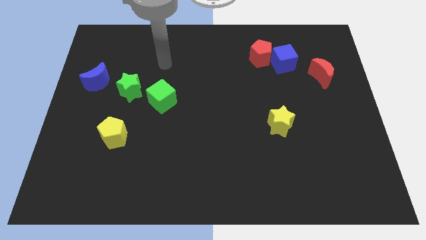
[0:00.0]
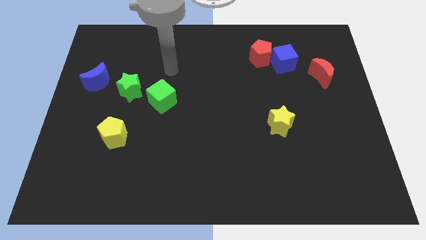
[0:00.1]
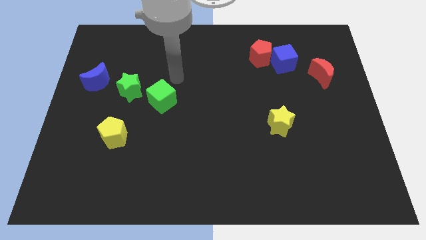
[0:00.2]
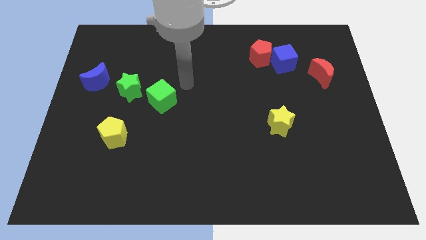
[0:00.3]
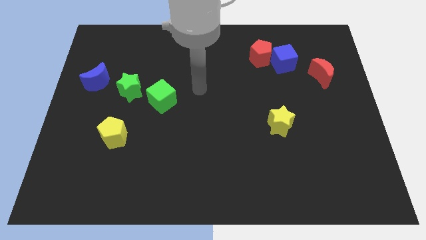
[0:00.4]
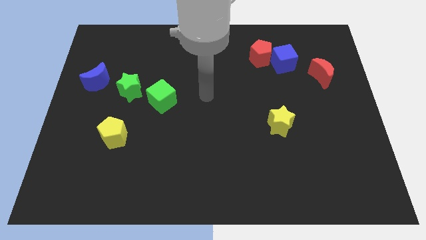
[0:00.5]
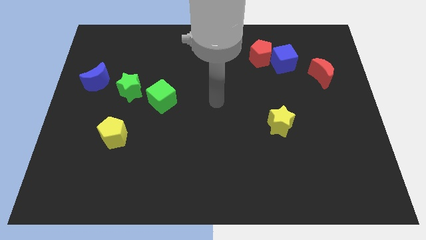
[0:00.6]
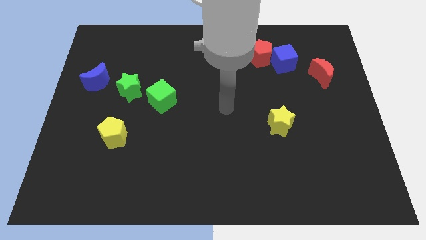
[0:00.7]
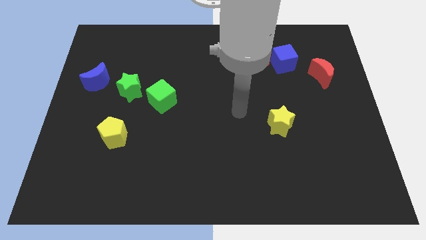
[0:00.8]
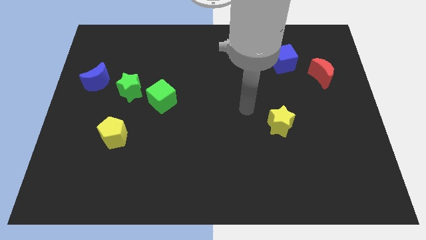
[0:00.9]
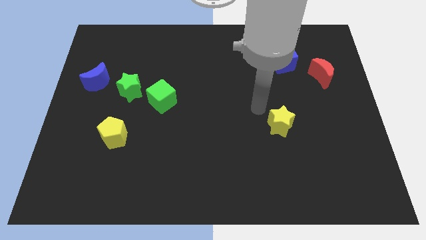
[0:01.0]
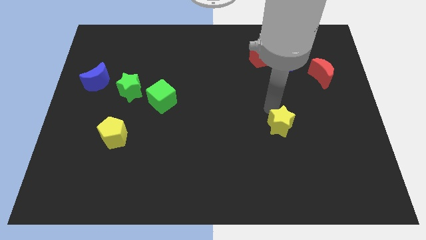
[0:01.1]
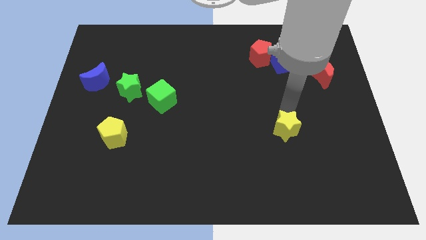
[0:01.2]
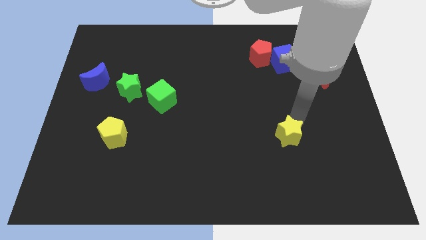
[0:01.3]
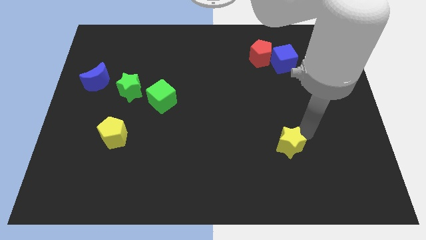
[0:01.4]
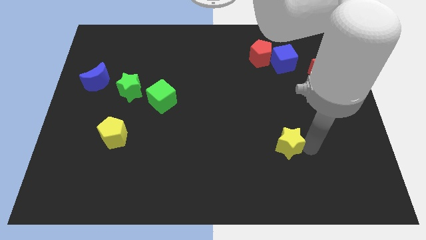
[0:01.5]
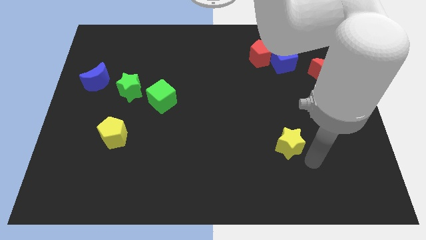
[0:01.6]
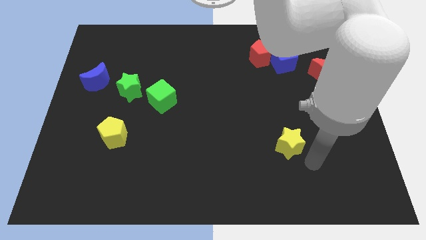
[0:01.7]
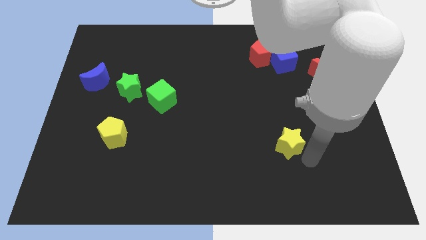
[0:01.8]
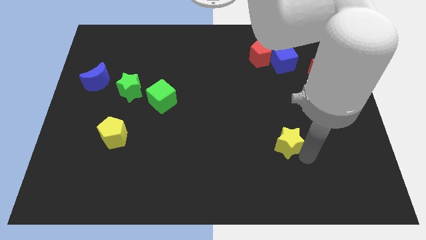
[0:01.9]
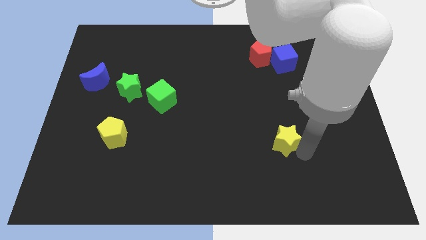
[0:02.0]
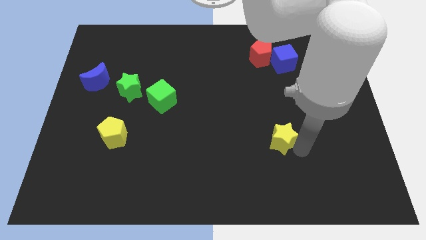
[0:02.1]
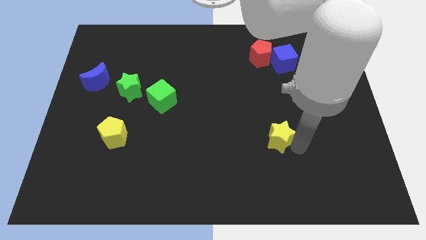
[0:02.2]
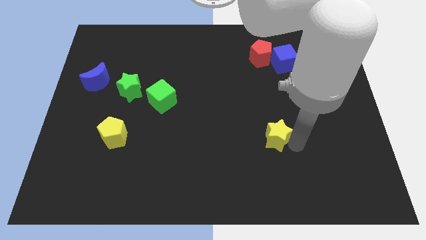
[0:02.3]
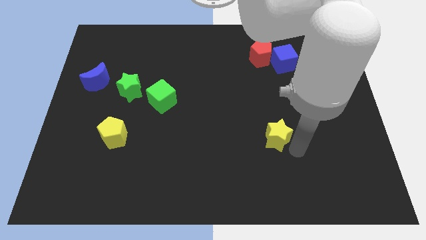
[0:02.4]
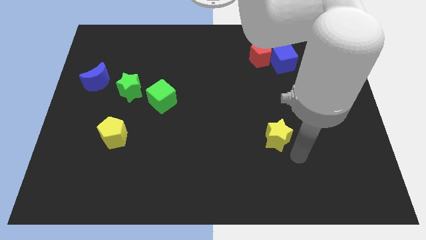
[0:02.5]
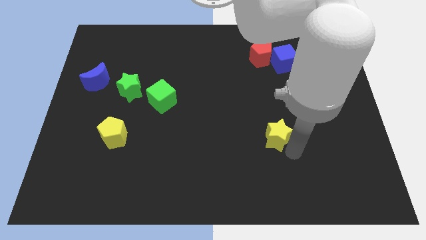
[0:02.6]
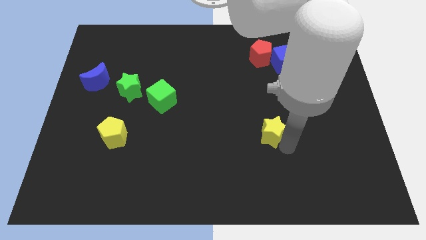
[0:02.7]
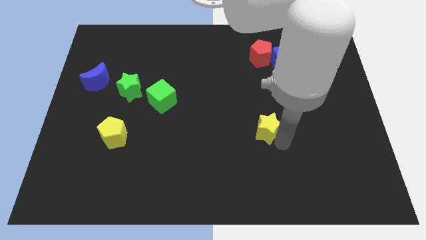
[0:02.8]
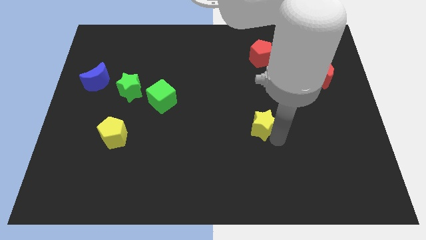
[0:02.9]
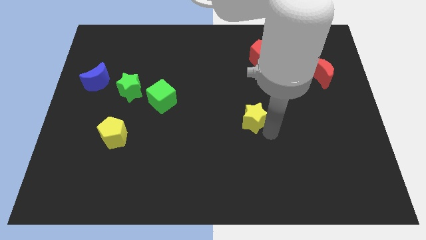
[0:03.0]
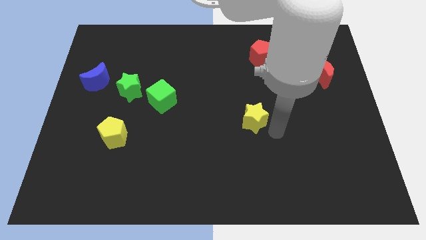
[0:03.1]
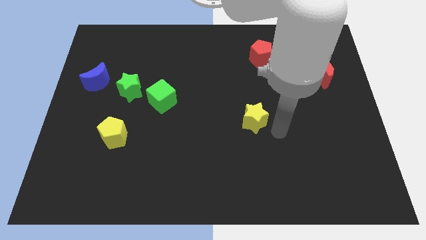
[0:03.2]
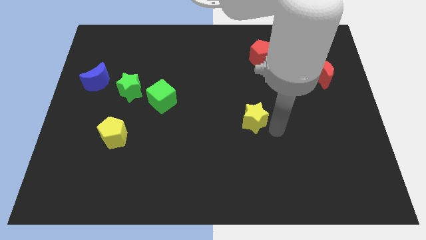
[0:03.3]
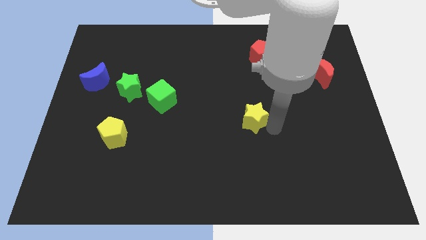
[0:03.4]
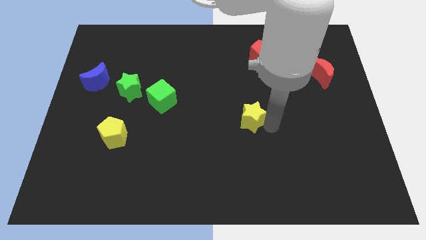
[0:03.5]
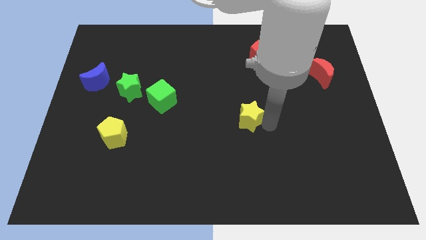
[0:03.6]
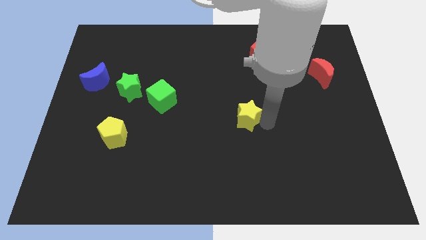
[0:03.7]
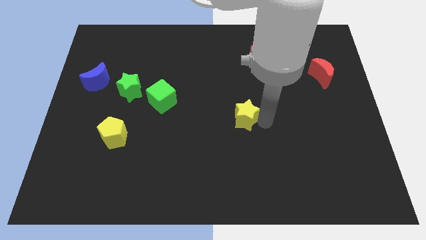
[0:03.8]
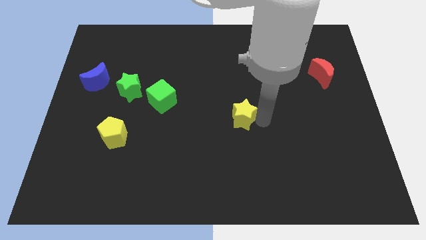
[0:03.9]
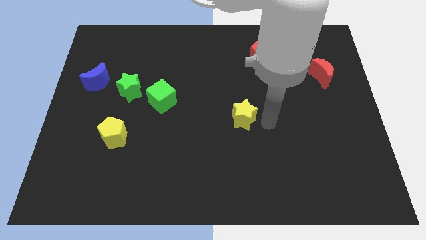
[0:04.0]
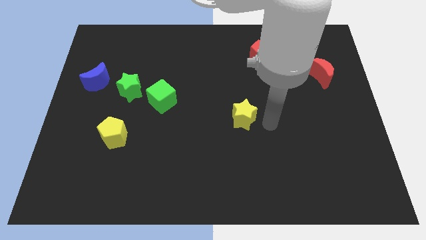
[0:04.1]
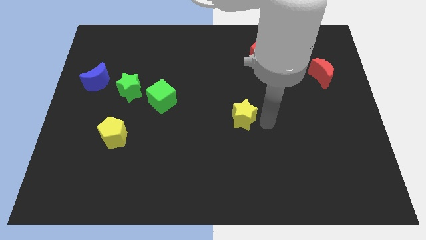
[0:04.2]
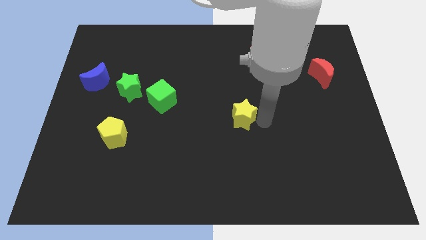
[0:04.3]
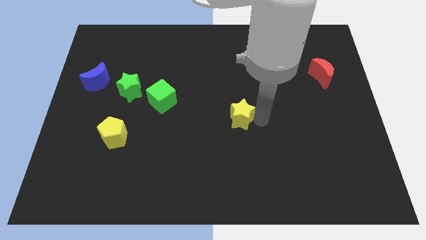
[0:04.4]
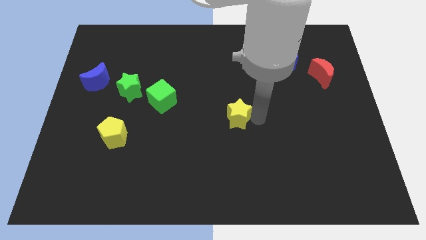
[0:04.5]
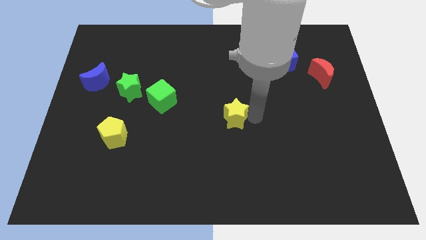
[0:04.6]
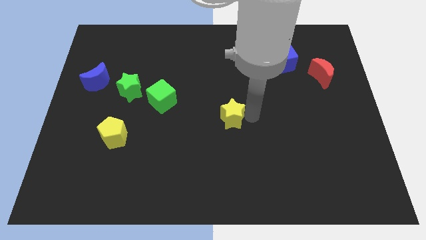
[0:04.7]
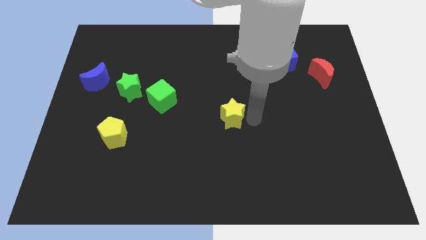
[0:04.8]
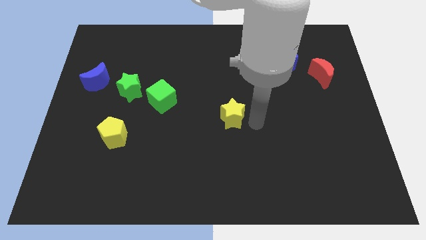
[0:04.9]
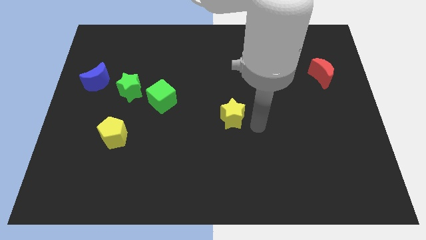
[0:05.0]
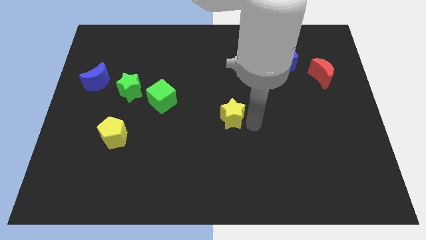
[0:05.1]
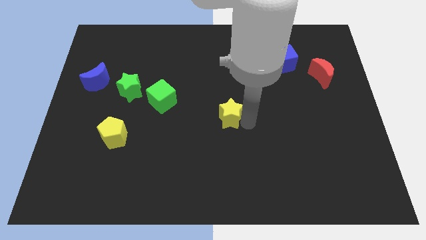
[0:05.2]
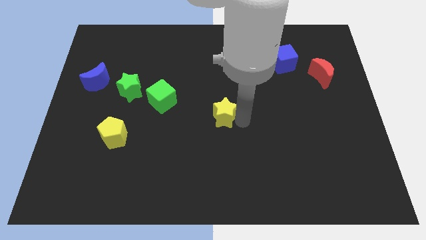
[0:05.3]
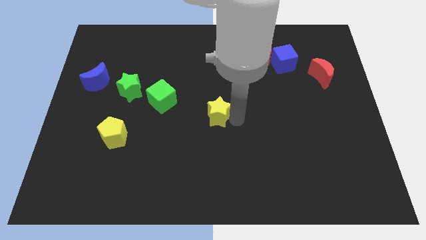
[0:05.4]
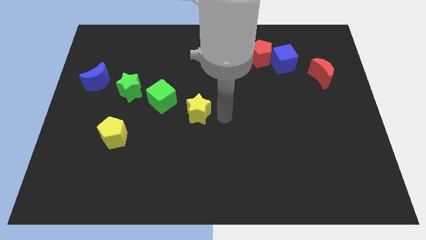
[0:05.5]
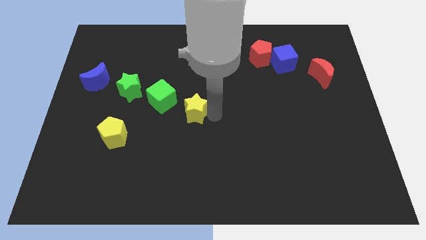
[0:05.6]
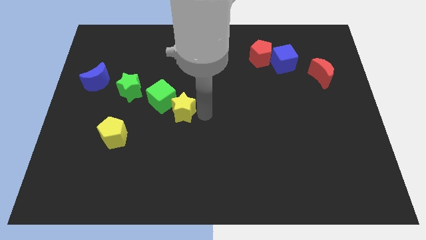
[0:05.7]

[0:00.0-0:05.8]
slide the yellow star towards the green cube
